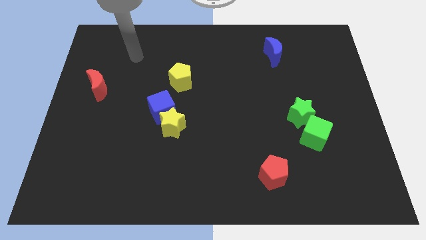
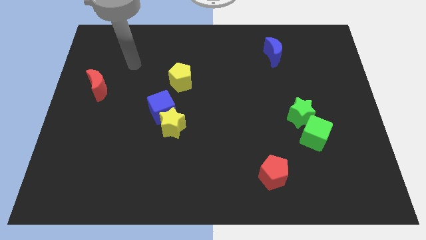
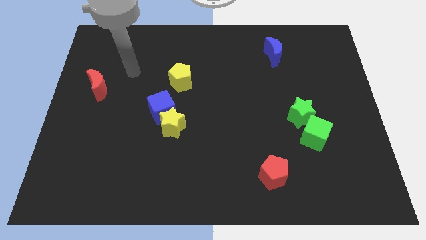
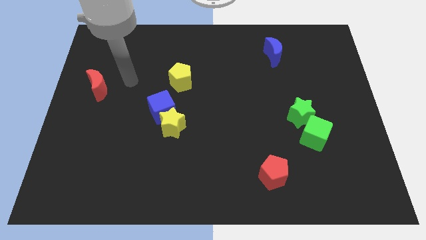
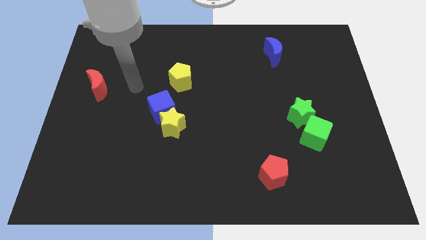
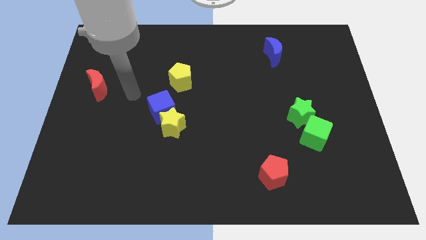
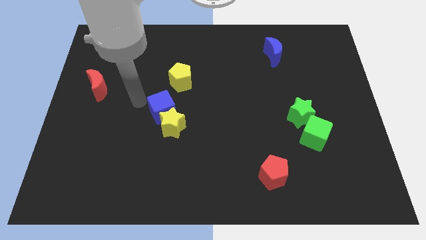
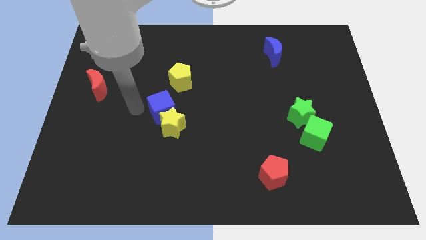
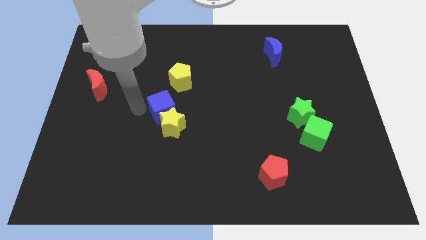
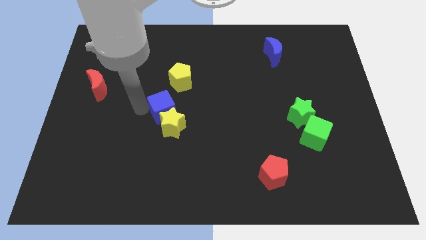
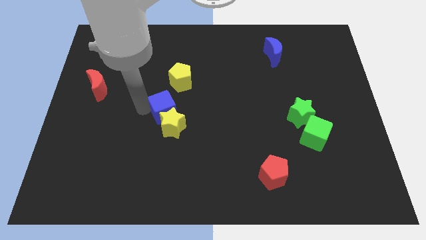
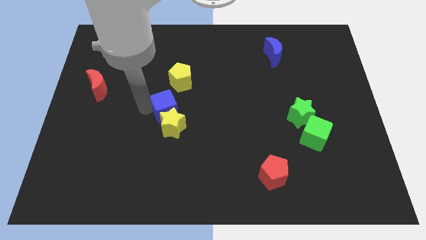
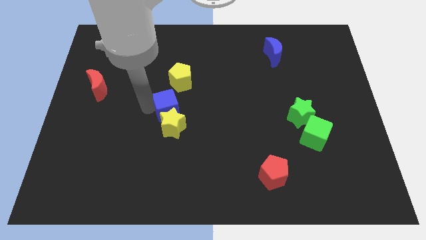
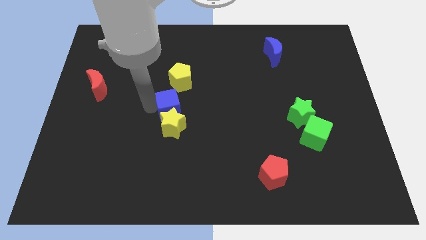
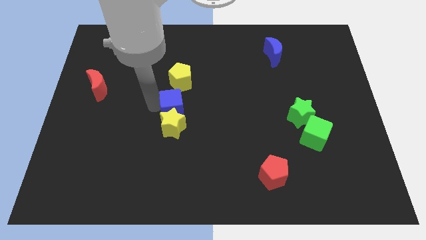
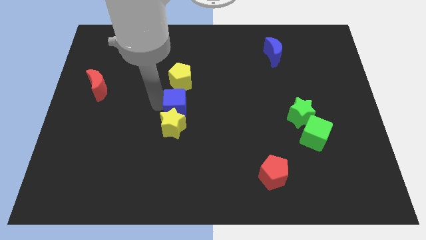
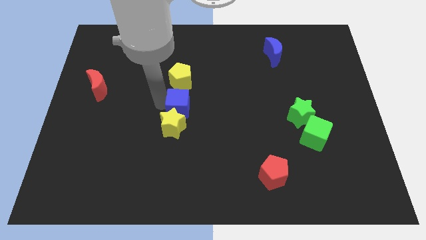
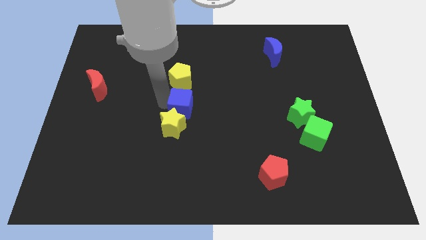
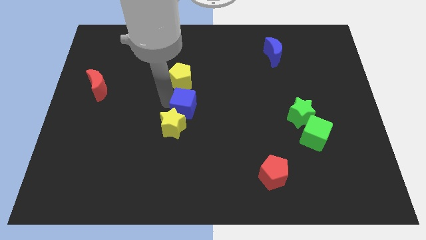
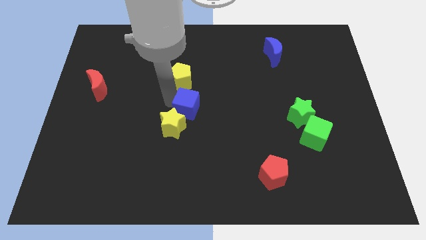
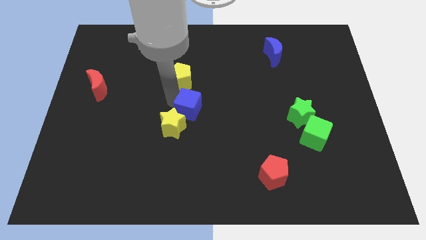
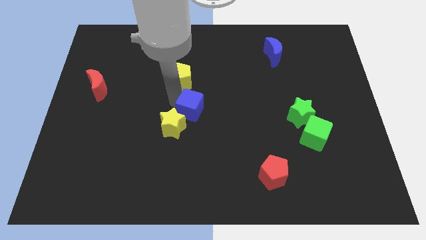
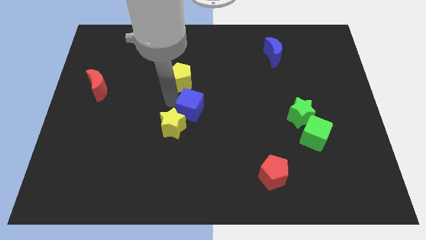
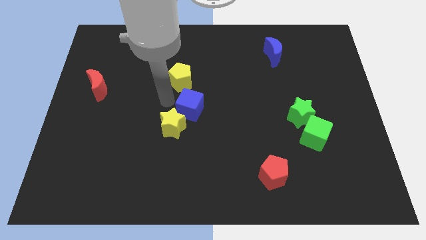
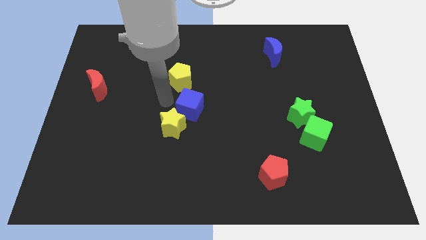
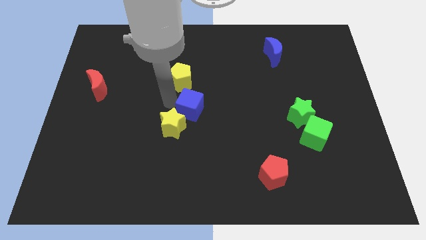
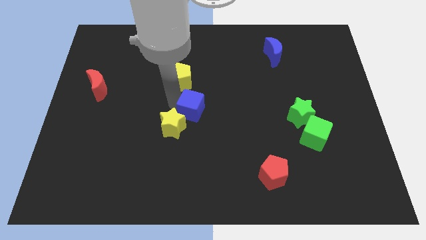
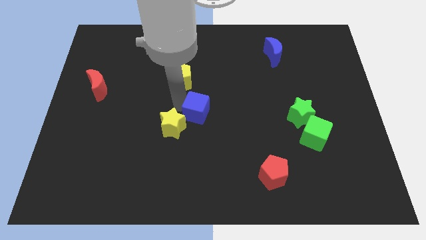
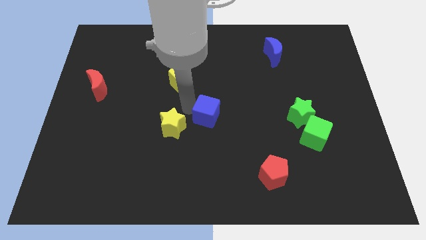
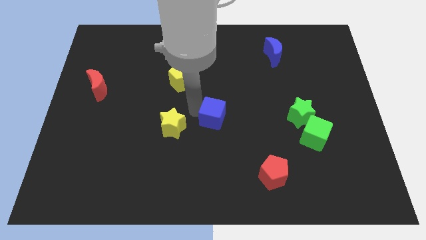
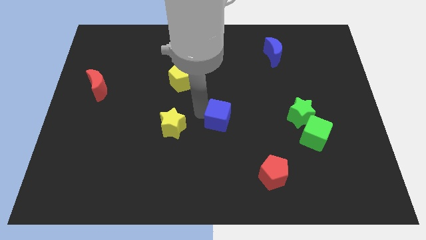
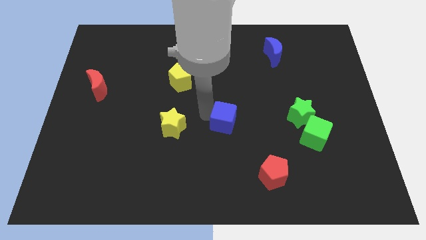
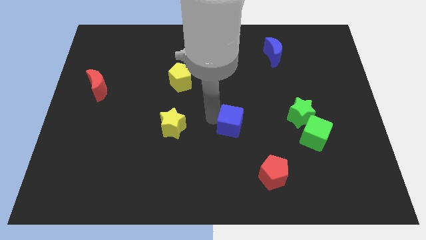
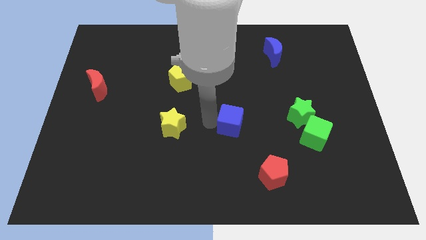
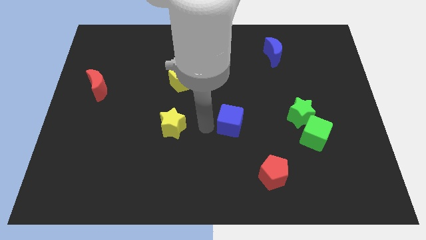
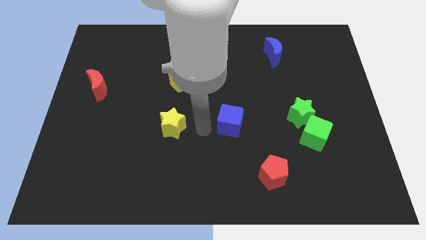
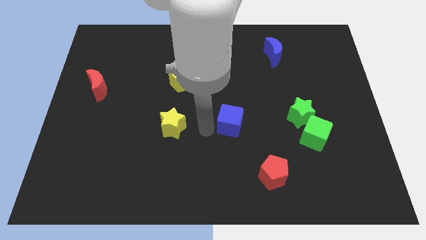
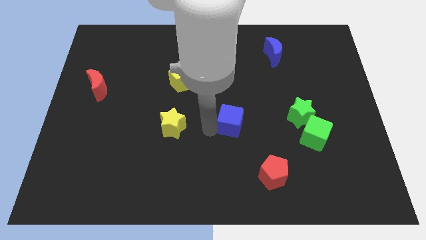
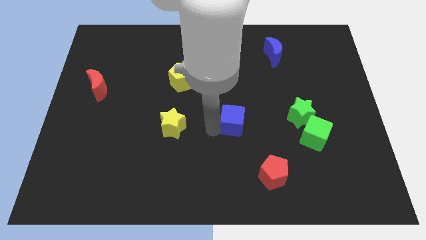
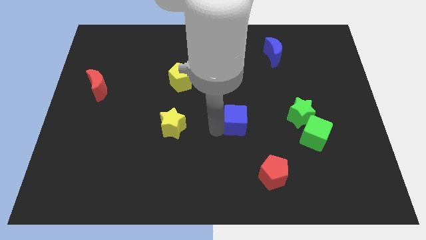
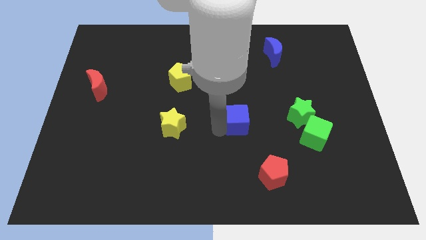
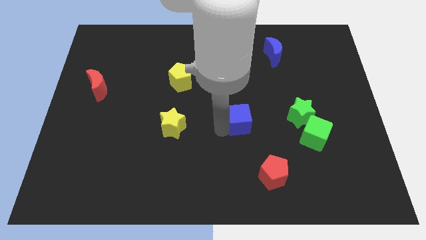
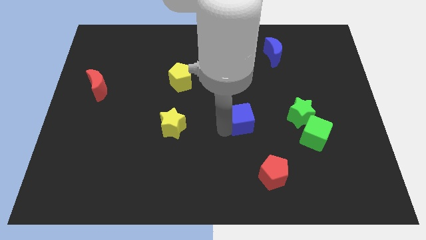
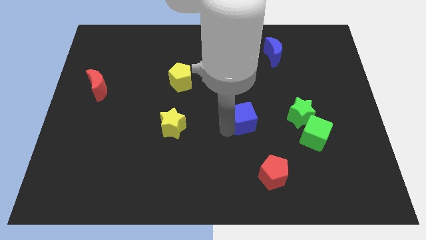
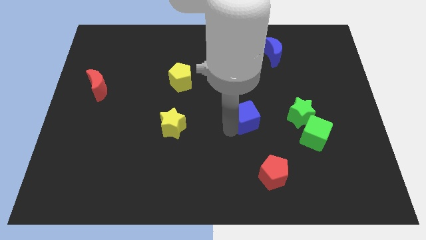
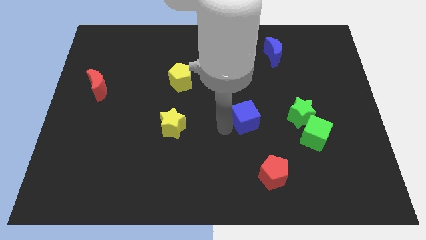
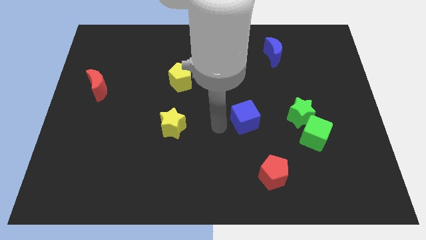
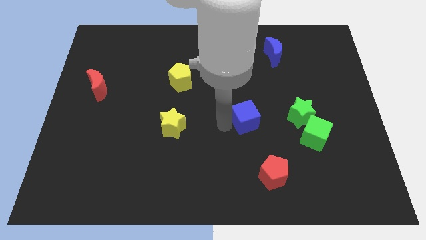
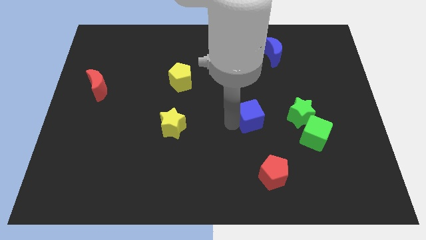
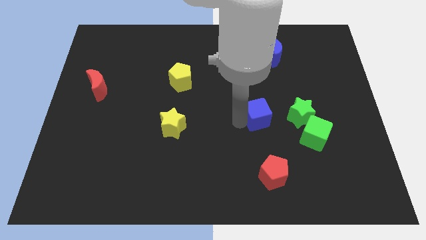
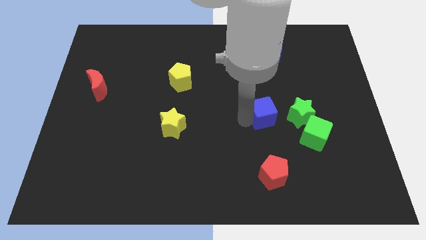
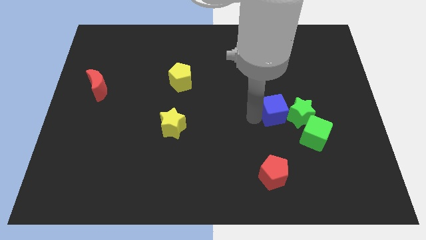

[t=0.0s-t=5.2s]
push the blue cube to the green star

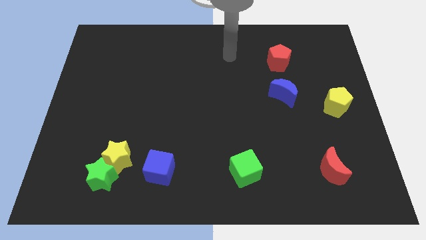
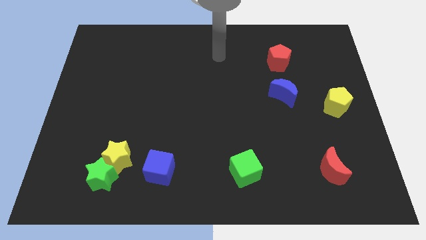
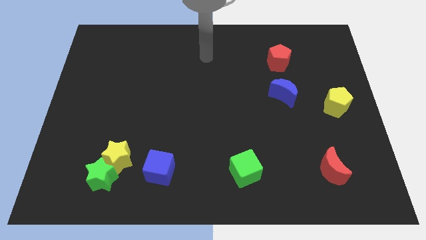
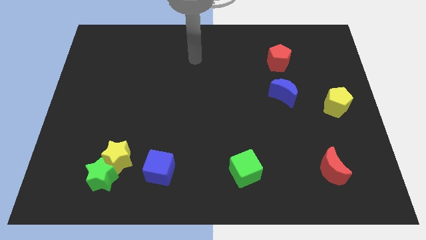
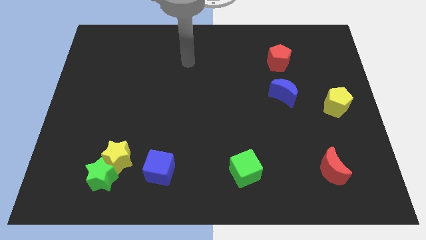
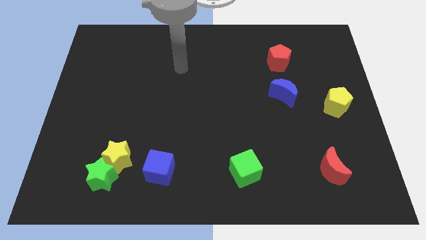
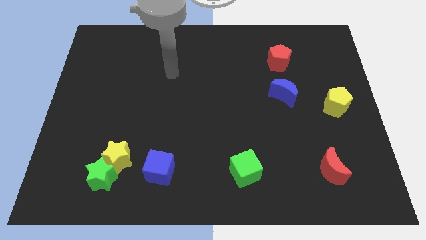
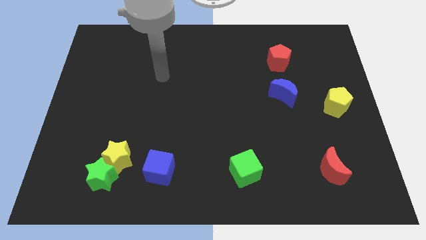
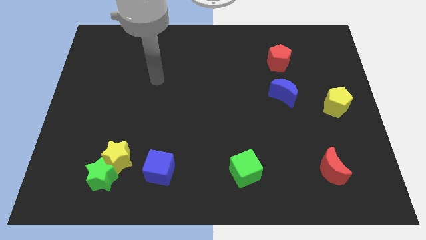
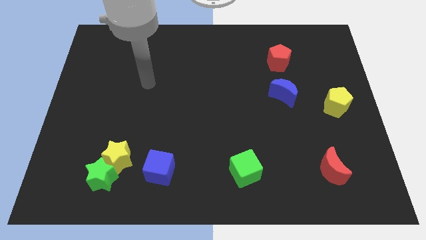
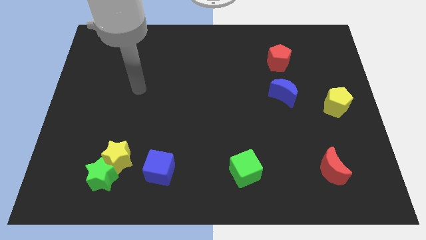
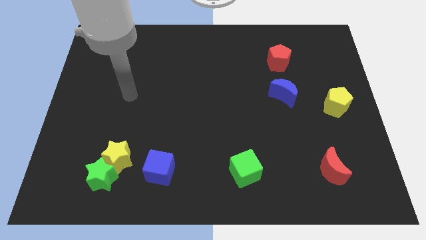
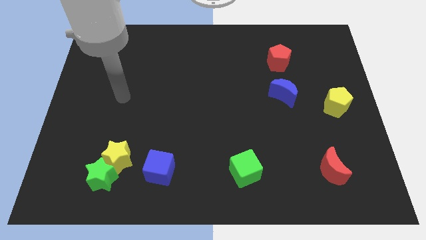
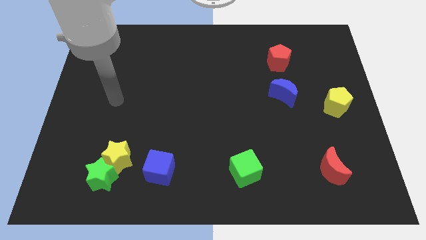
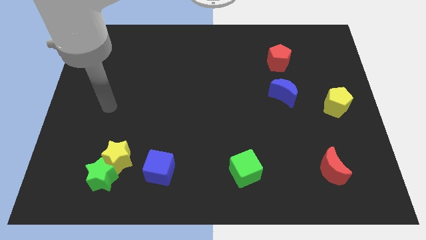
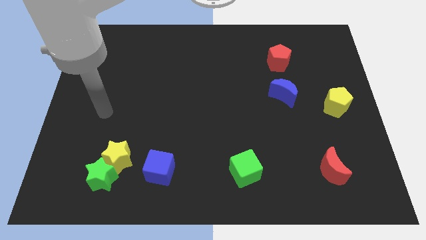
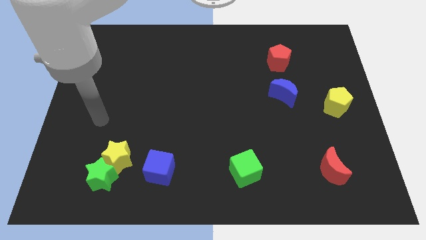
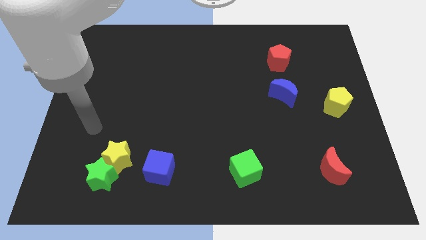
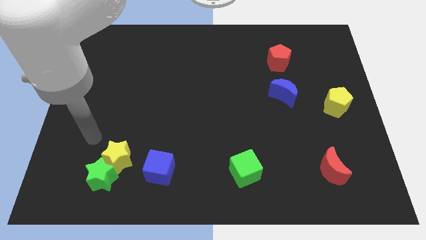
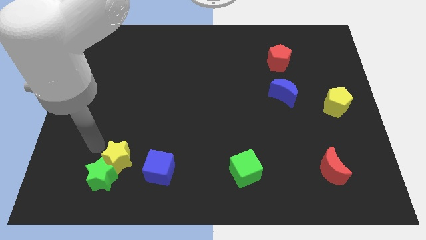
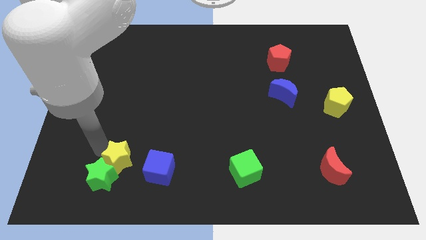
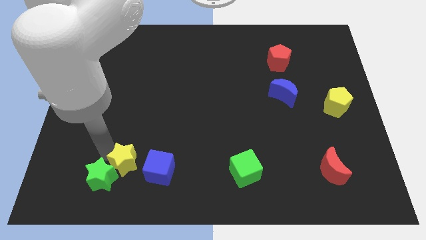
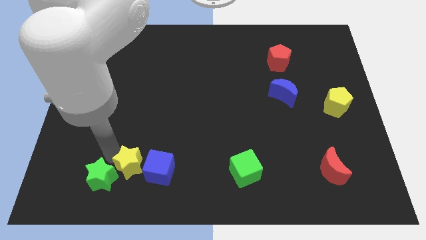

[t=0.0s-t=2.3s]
move the yellow star towards the blue cube
